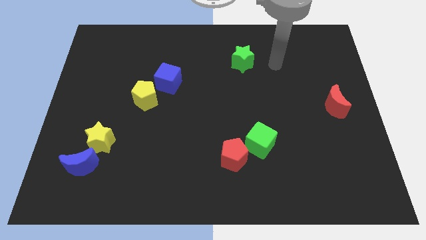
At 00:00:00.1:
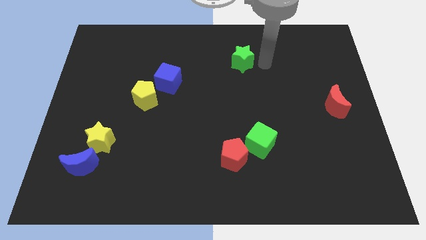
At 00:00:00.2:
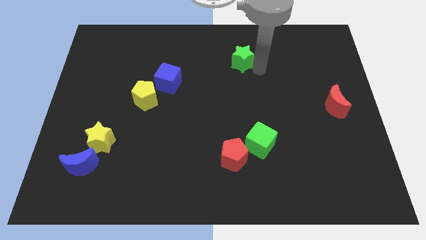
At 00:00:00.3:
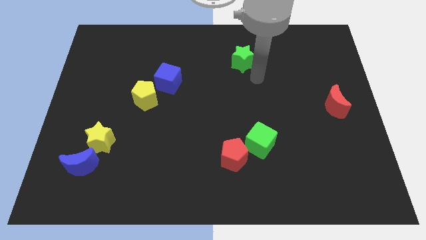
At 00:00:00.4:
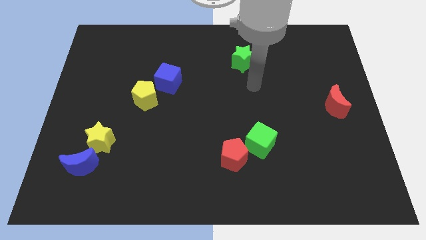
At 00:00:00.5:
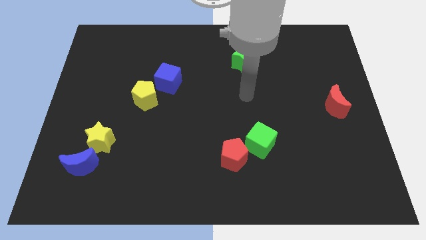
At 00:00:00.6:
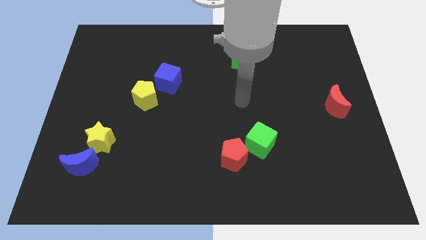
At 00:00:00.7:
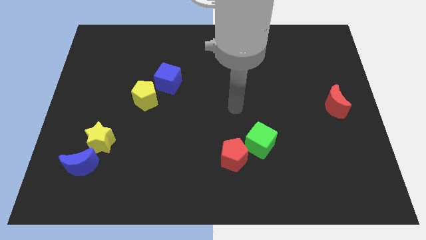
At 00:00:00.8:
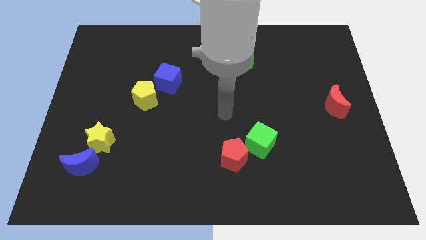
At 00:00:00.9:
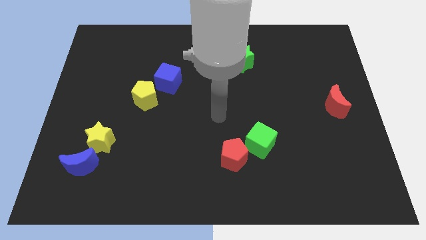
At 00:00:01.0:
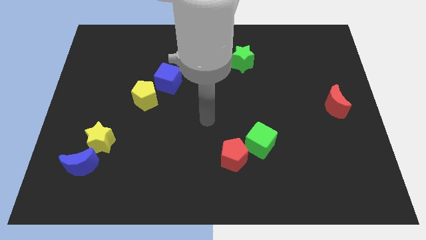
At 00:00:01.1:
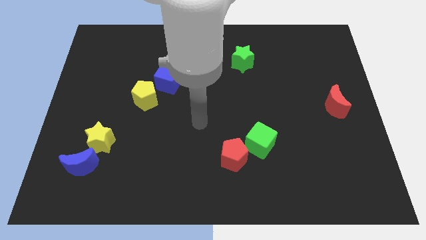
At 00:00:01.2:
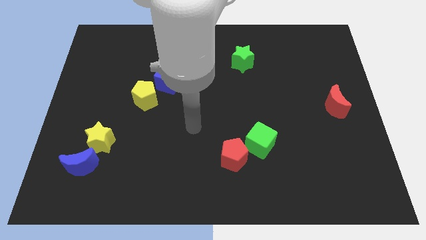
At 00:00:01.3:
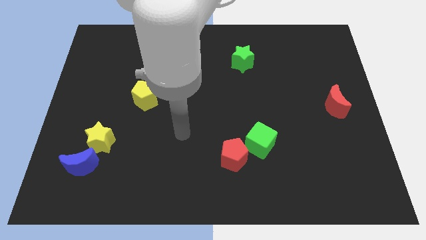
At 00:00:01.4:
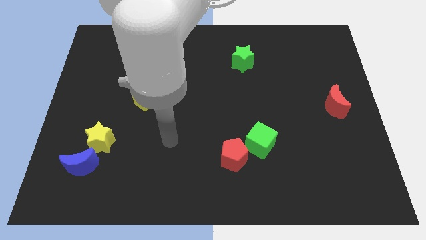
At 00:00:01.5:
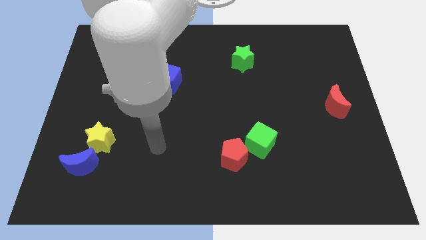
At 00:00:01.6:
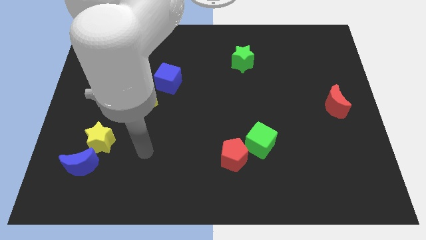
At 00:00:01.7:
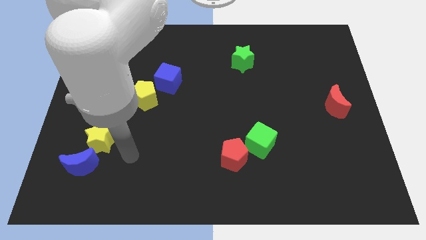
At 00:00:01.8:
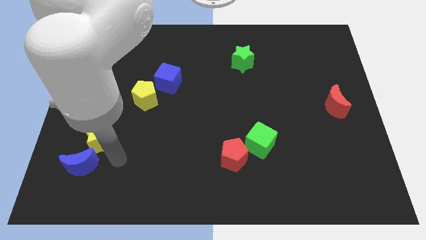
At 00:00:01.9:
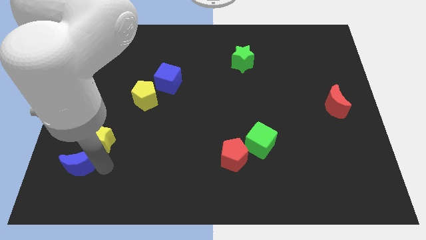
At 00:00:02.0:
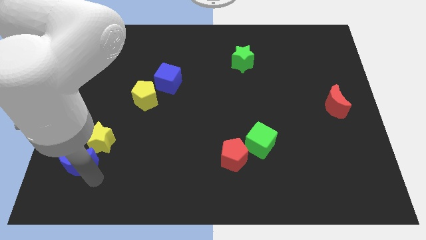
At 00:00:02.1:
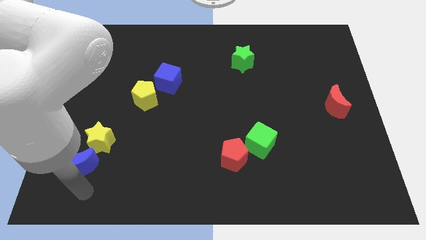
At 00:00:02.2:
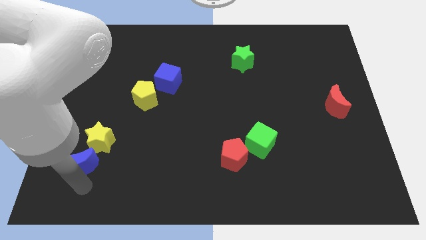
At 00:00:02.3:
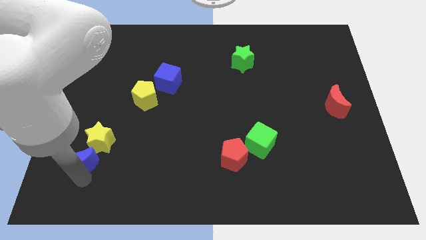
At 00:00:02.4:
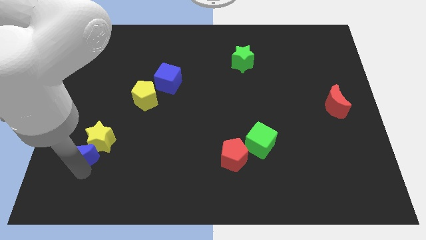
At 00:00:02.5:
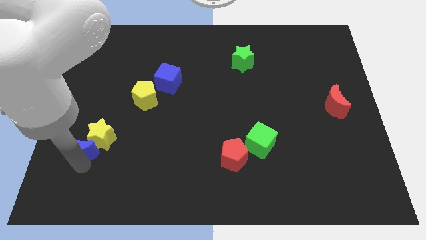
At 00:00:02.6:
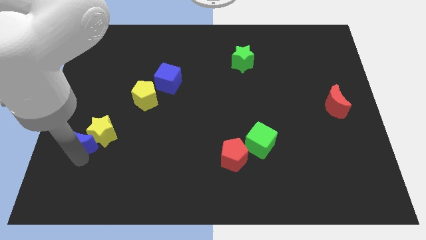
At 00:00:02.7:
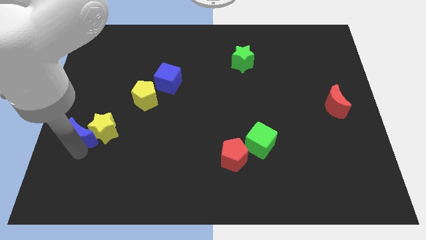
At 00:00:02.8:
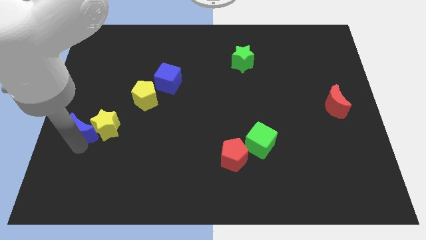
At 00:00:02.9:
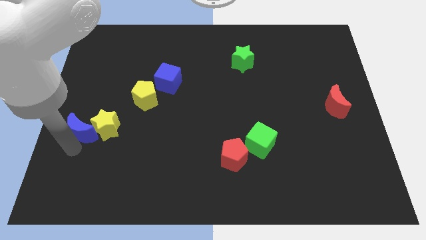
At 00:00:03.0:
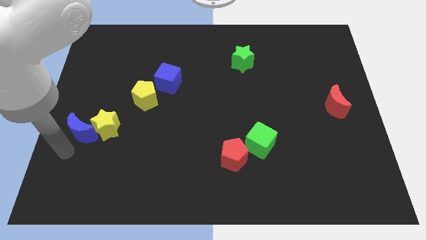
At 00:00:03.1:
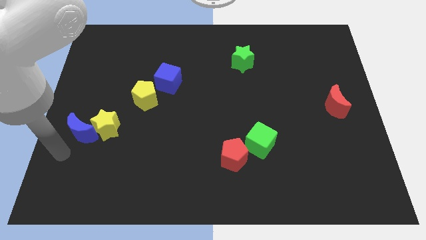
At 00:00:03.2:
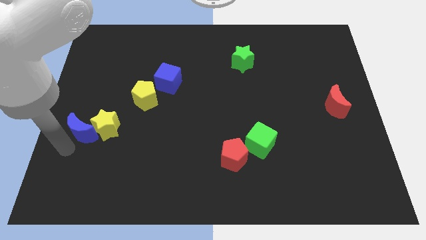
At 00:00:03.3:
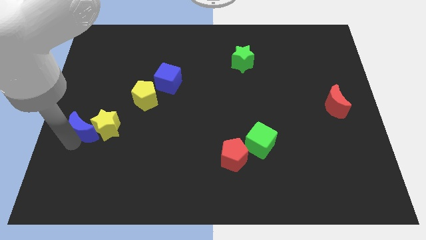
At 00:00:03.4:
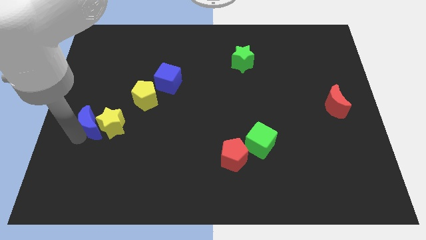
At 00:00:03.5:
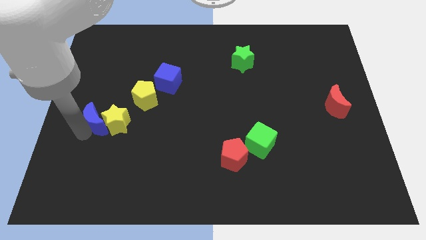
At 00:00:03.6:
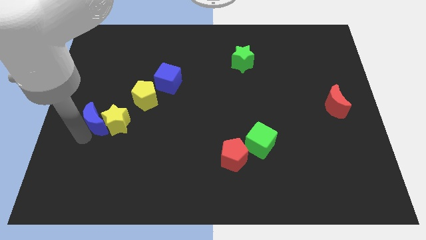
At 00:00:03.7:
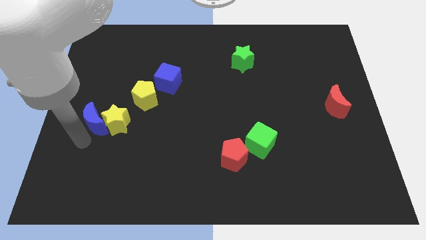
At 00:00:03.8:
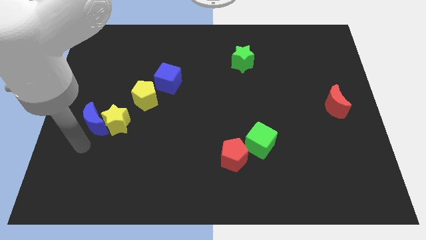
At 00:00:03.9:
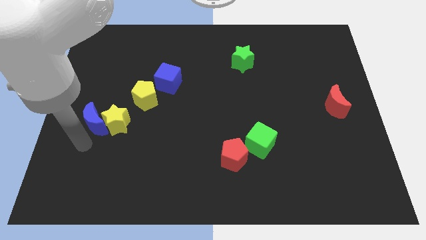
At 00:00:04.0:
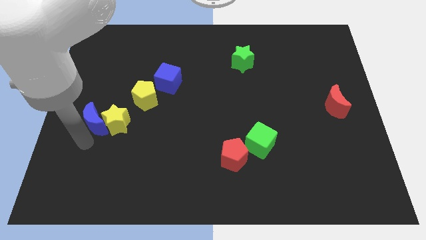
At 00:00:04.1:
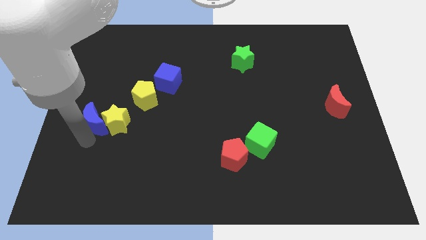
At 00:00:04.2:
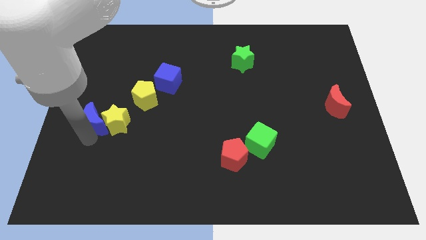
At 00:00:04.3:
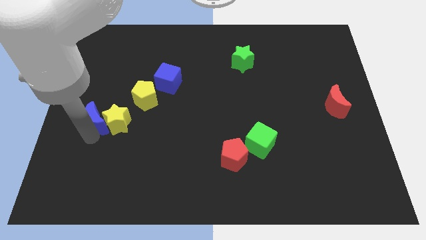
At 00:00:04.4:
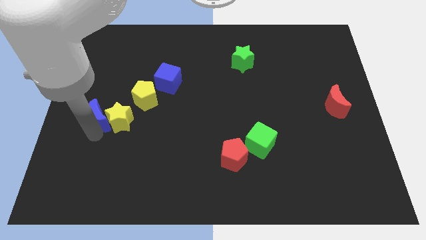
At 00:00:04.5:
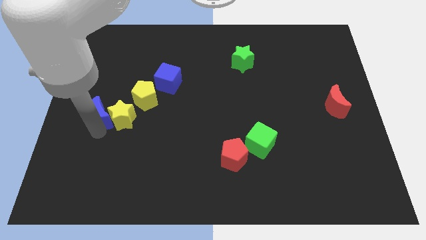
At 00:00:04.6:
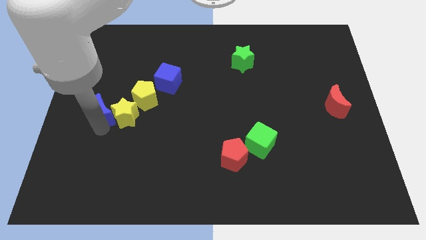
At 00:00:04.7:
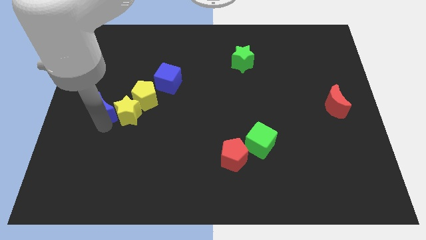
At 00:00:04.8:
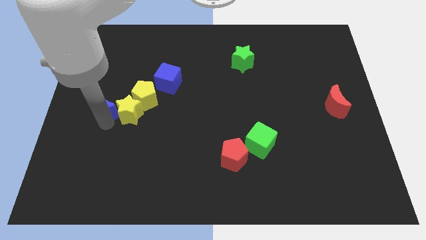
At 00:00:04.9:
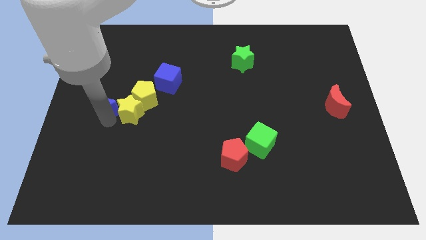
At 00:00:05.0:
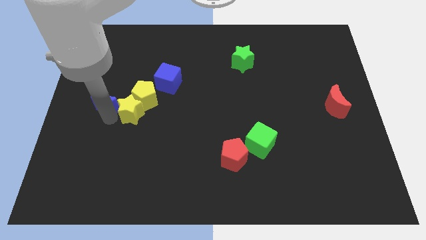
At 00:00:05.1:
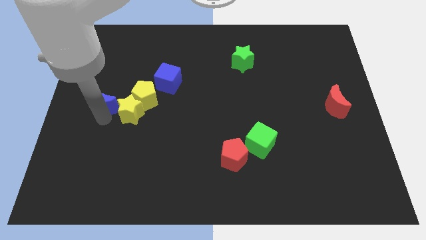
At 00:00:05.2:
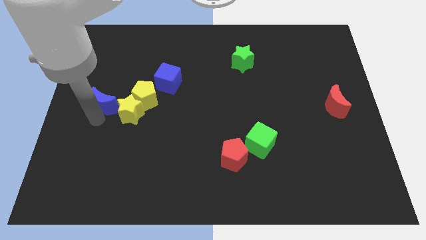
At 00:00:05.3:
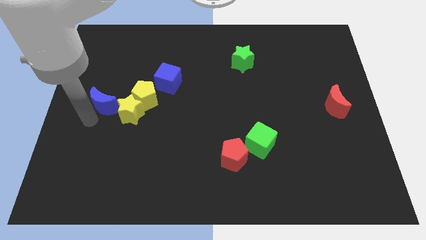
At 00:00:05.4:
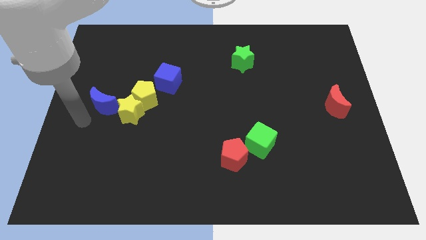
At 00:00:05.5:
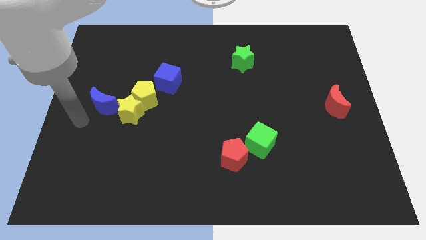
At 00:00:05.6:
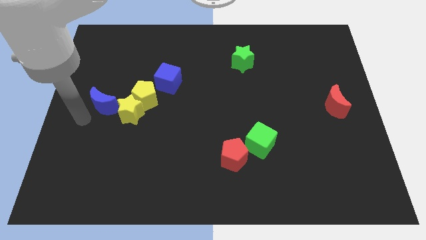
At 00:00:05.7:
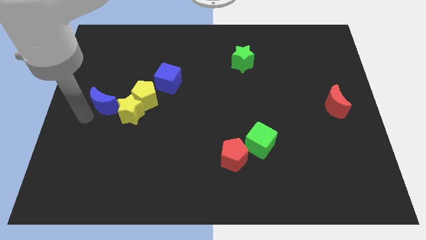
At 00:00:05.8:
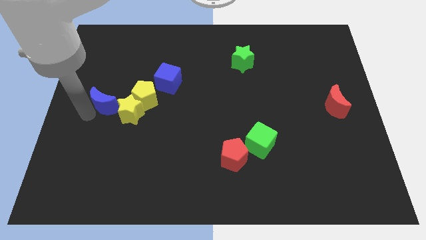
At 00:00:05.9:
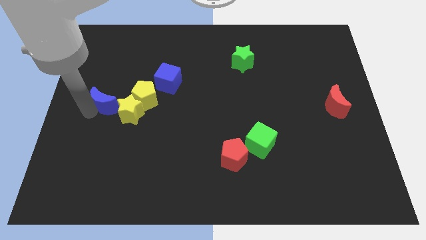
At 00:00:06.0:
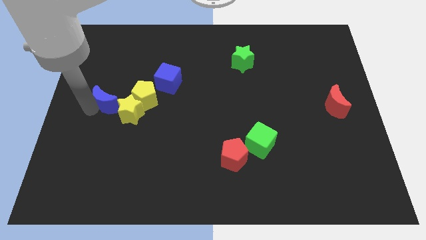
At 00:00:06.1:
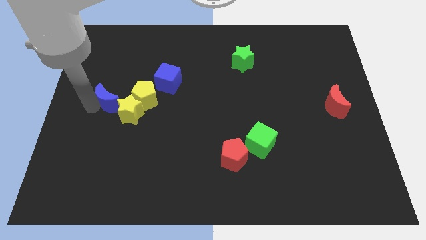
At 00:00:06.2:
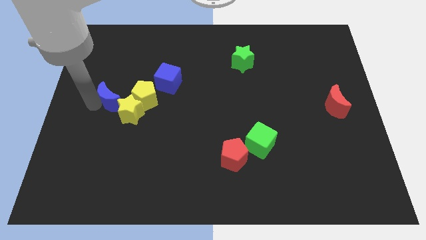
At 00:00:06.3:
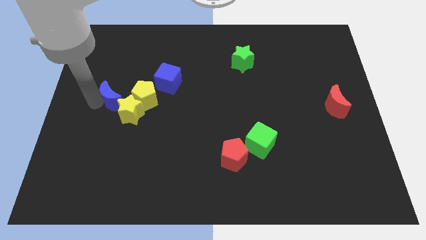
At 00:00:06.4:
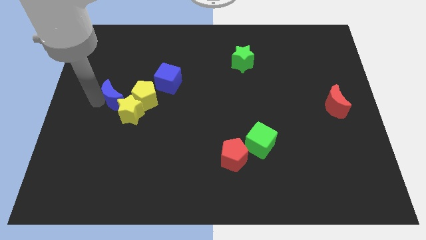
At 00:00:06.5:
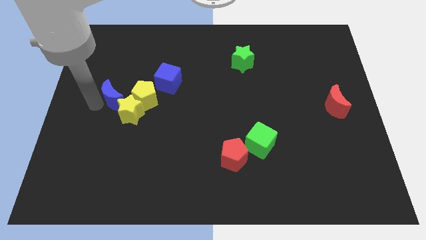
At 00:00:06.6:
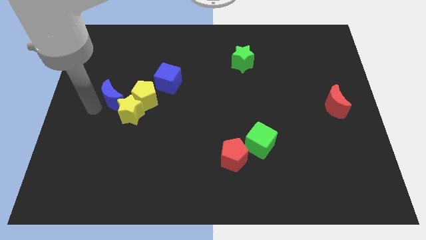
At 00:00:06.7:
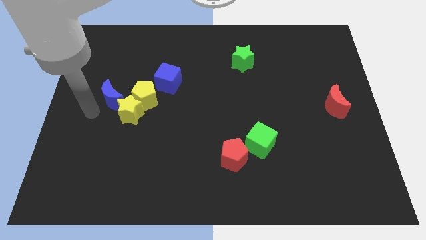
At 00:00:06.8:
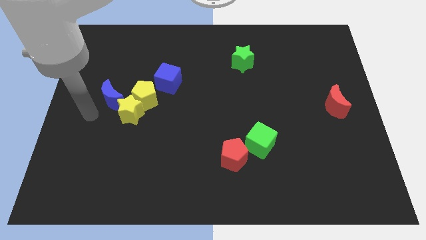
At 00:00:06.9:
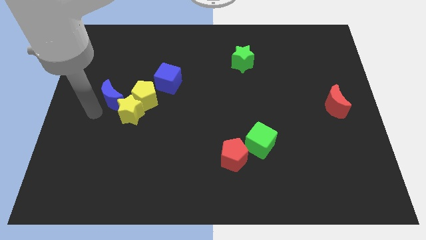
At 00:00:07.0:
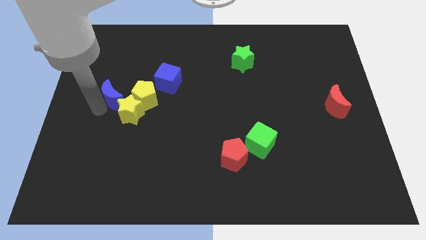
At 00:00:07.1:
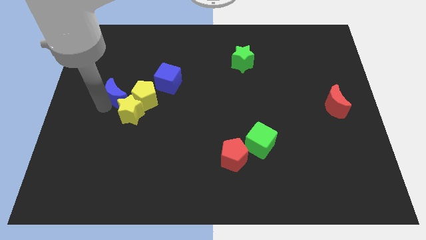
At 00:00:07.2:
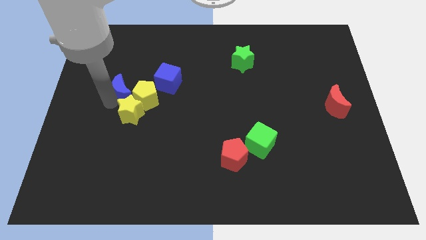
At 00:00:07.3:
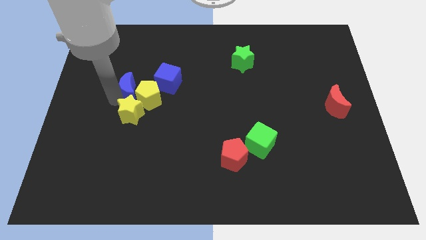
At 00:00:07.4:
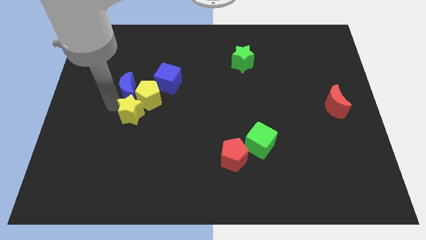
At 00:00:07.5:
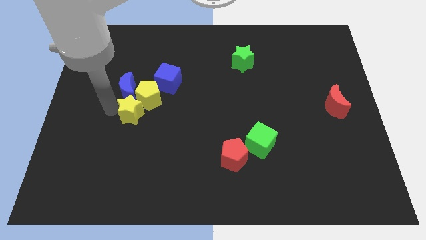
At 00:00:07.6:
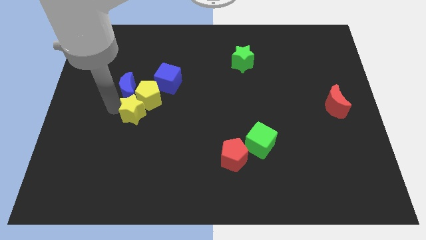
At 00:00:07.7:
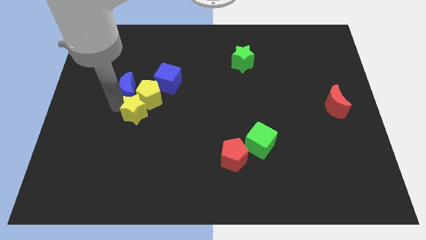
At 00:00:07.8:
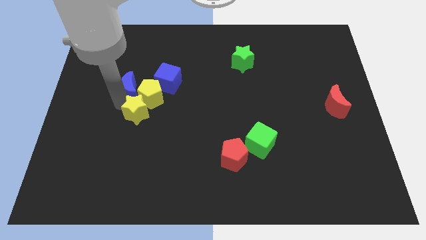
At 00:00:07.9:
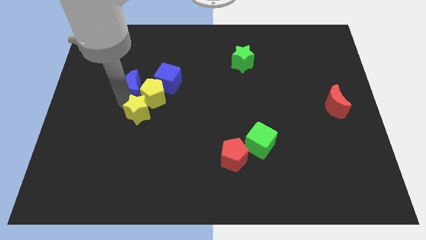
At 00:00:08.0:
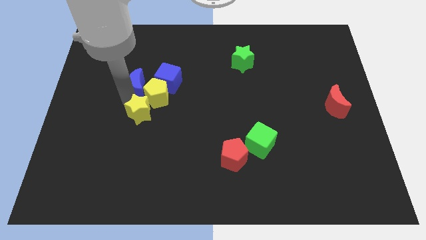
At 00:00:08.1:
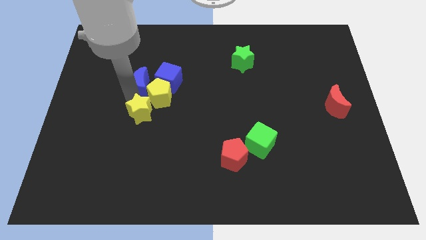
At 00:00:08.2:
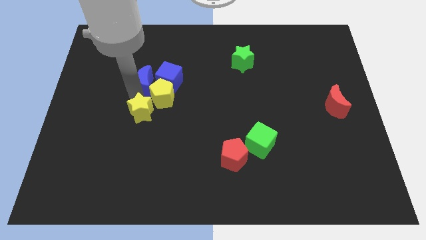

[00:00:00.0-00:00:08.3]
push the blue moon above the yellow pentagon
